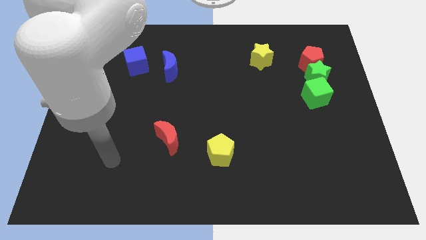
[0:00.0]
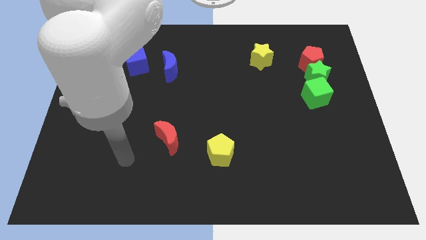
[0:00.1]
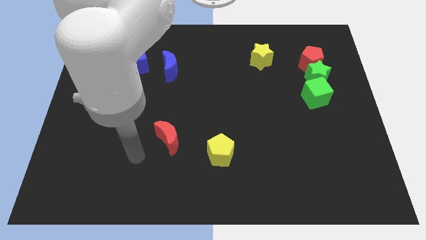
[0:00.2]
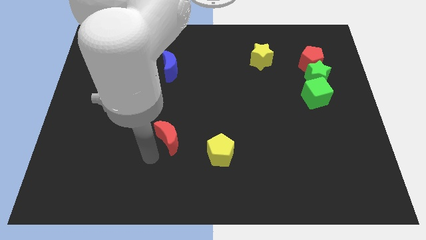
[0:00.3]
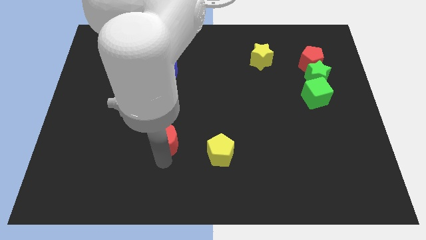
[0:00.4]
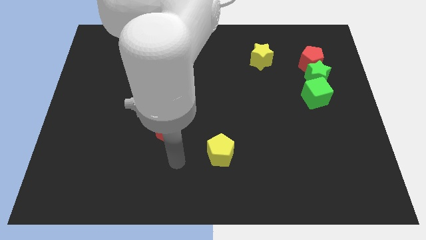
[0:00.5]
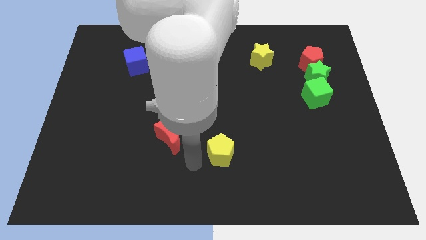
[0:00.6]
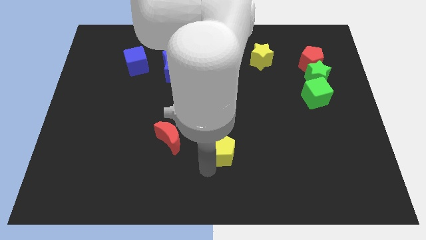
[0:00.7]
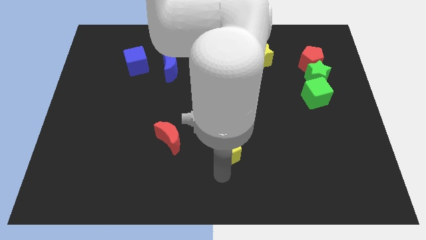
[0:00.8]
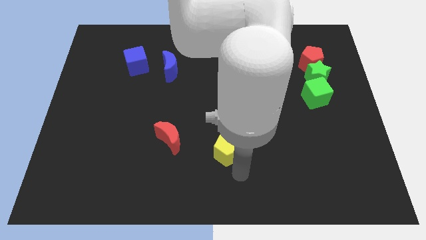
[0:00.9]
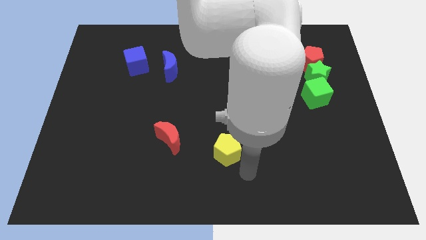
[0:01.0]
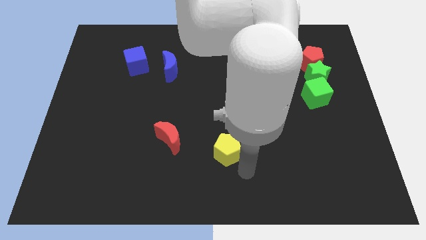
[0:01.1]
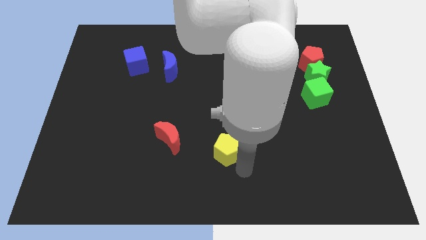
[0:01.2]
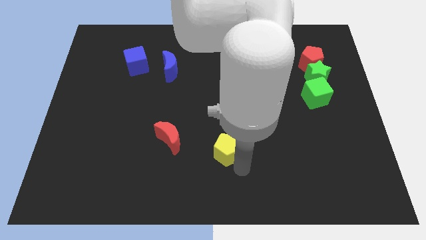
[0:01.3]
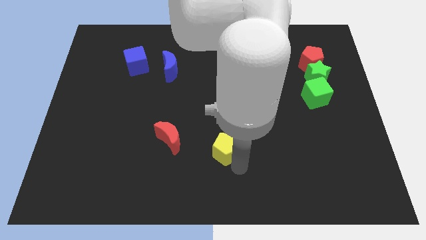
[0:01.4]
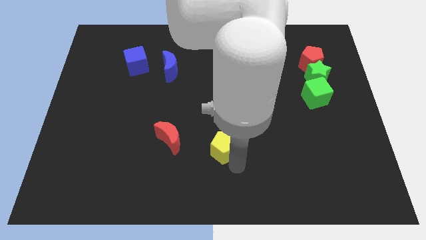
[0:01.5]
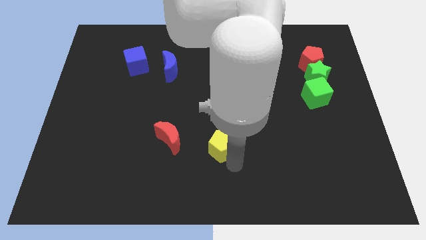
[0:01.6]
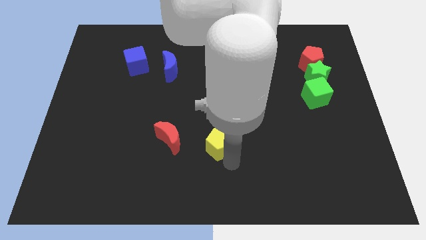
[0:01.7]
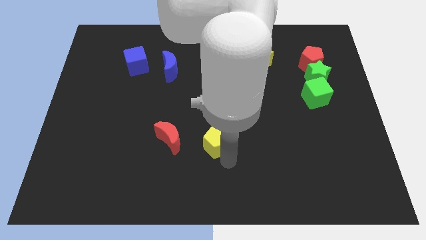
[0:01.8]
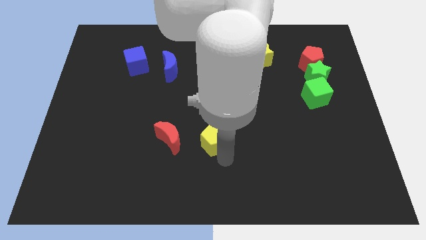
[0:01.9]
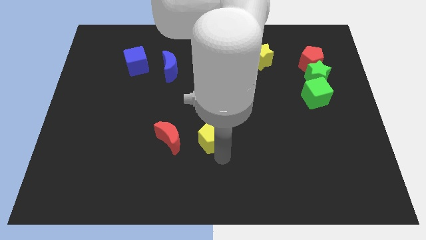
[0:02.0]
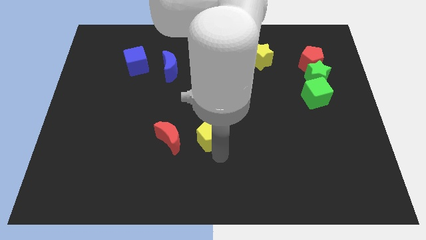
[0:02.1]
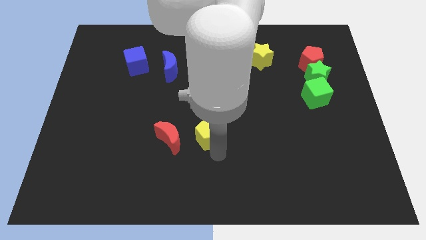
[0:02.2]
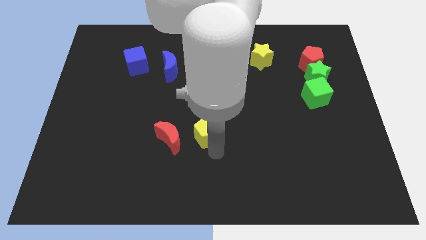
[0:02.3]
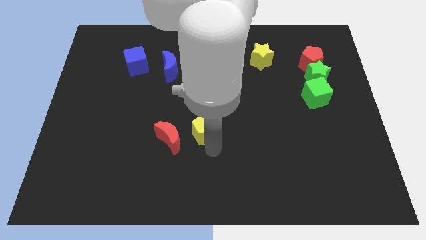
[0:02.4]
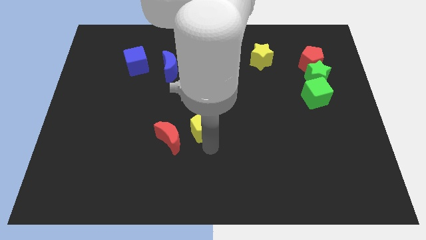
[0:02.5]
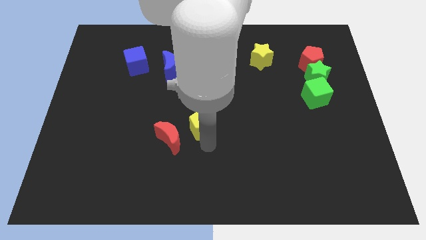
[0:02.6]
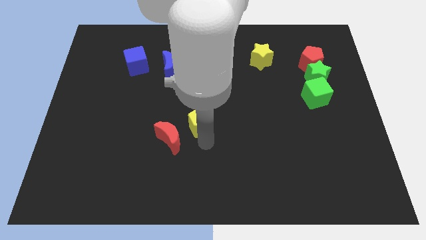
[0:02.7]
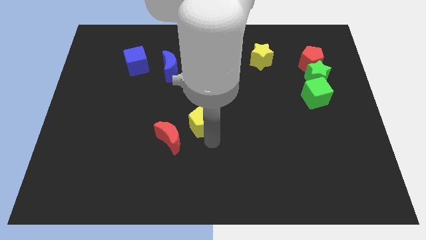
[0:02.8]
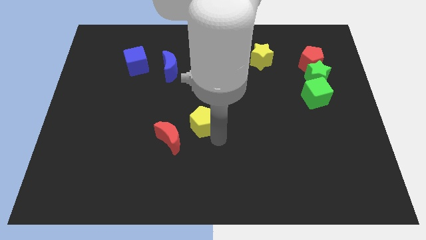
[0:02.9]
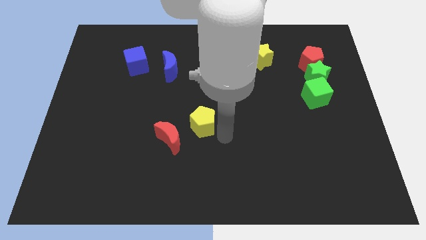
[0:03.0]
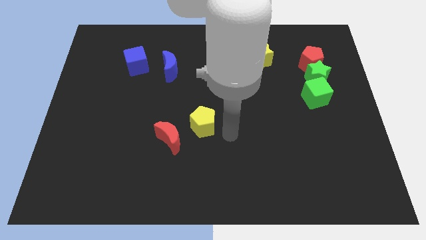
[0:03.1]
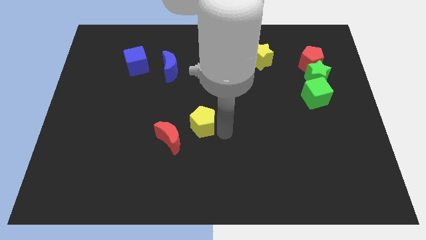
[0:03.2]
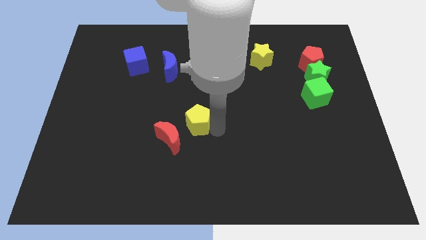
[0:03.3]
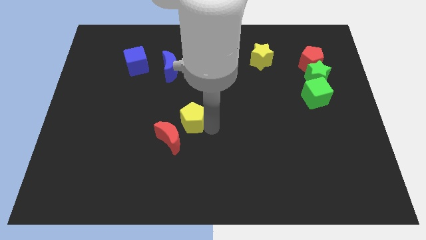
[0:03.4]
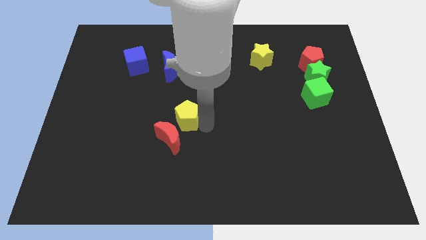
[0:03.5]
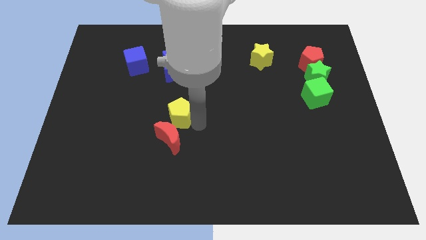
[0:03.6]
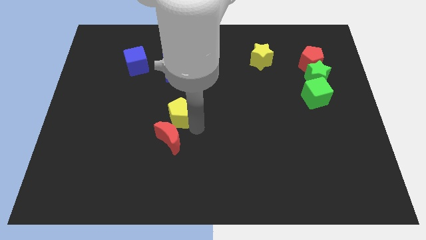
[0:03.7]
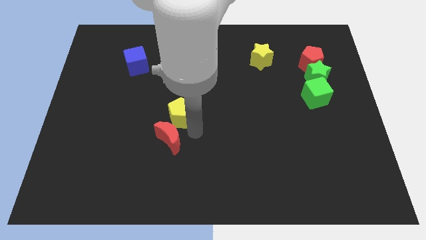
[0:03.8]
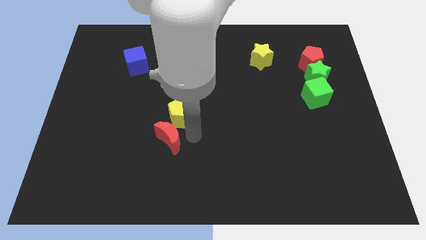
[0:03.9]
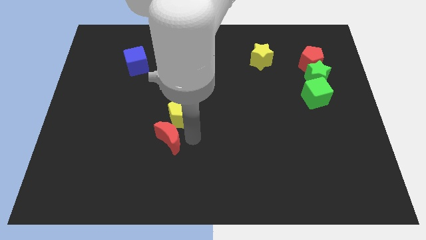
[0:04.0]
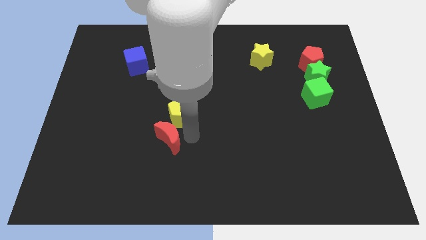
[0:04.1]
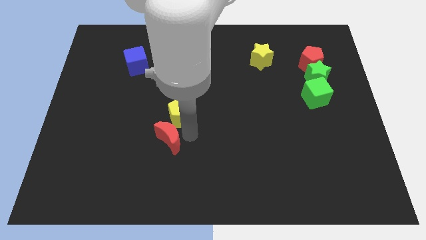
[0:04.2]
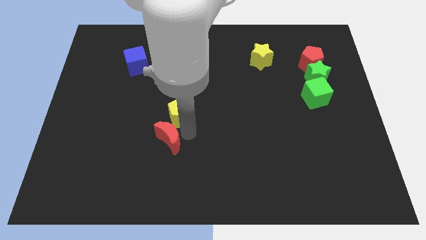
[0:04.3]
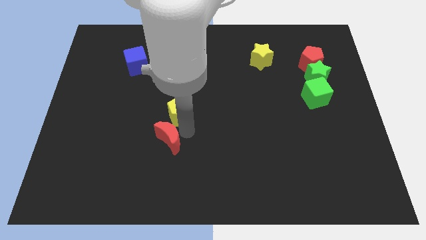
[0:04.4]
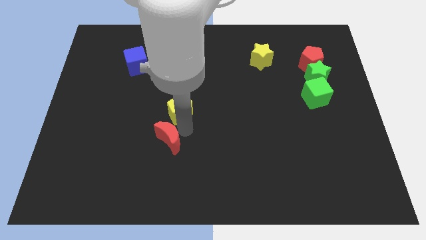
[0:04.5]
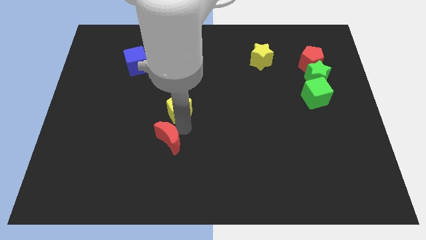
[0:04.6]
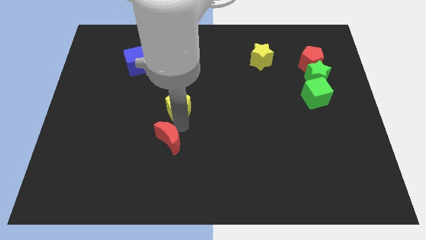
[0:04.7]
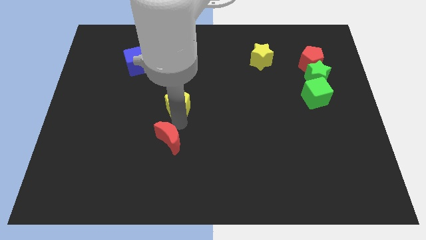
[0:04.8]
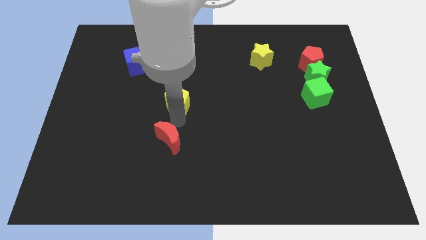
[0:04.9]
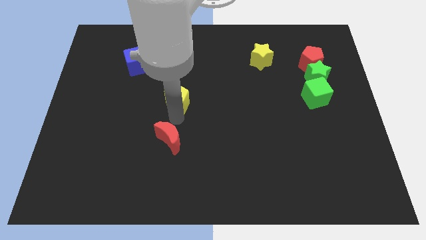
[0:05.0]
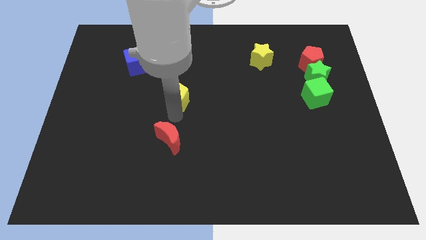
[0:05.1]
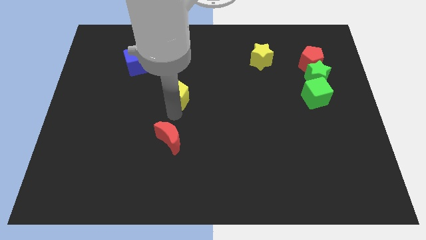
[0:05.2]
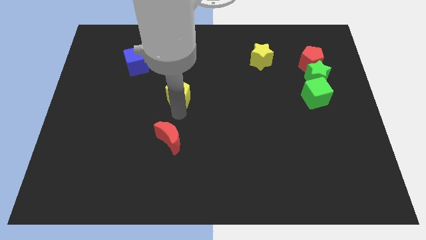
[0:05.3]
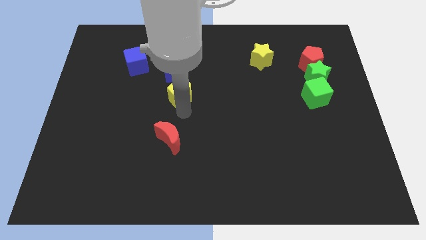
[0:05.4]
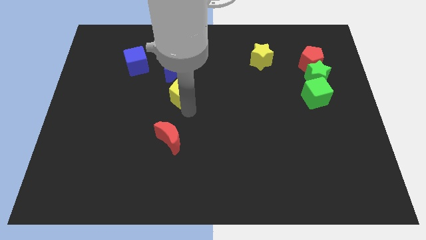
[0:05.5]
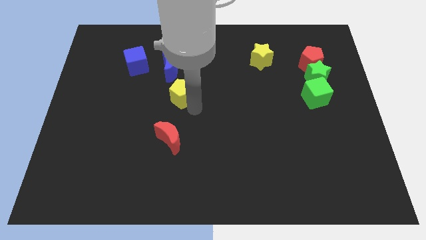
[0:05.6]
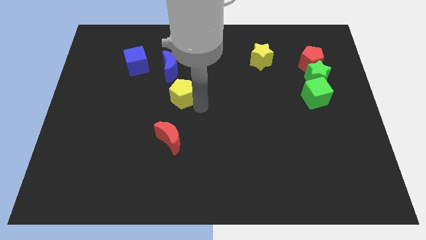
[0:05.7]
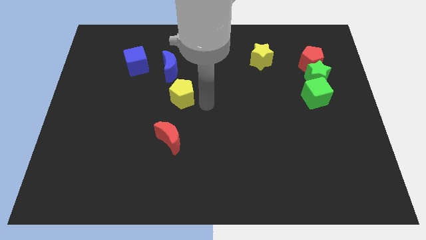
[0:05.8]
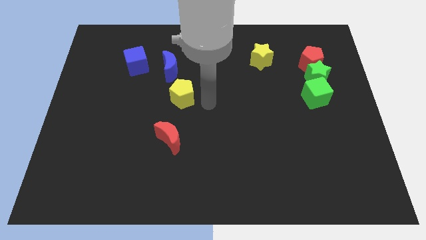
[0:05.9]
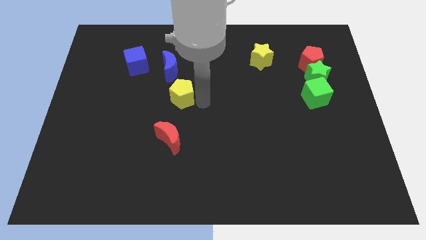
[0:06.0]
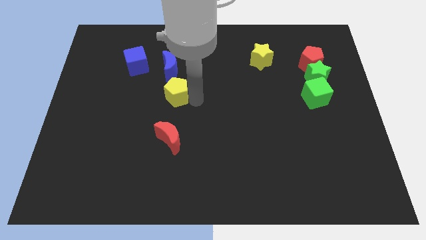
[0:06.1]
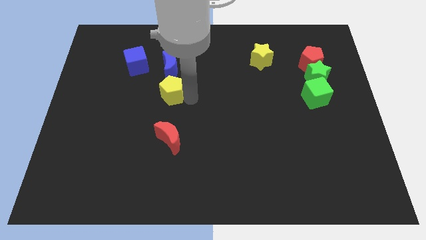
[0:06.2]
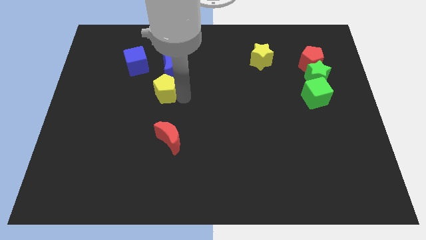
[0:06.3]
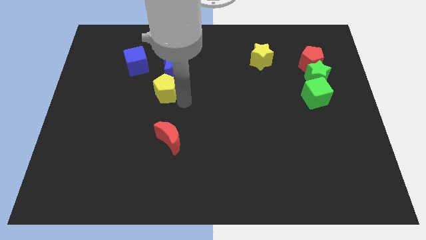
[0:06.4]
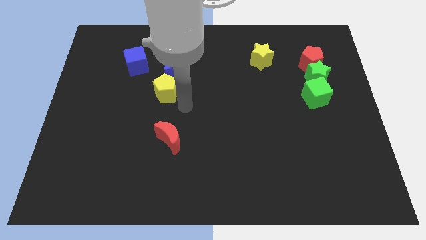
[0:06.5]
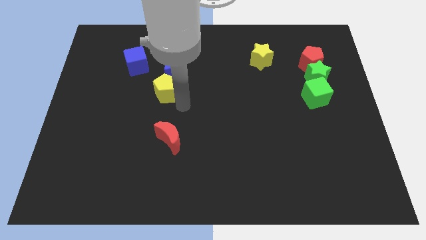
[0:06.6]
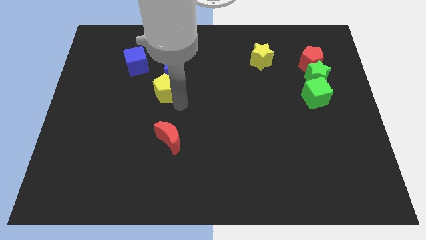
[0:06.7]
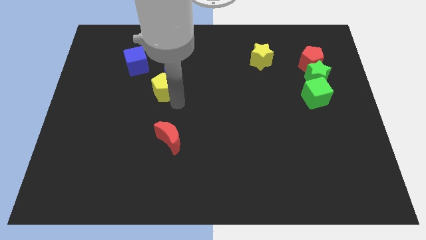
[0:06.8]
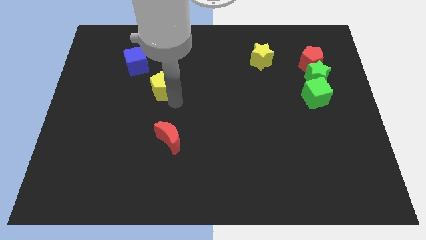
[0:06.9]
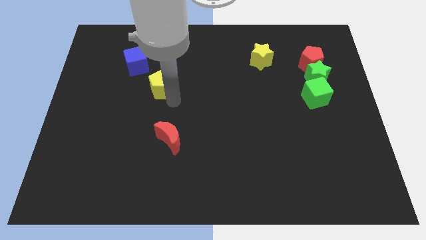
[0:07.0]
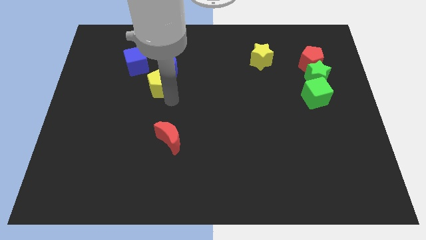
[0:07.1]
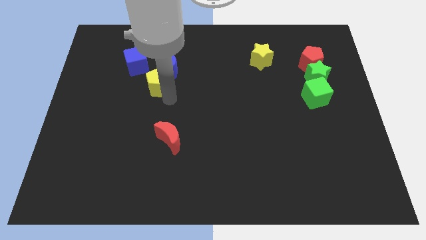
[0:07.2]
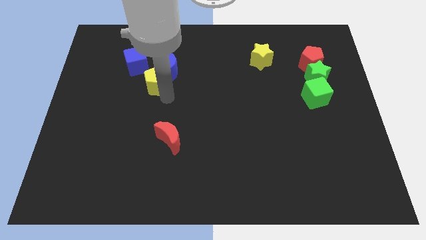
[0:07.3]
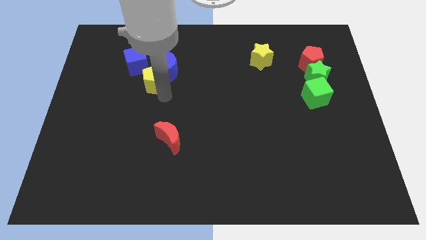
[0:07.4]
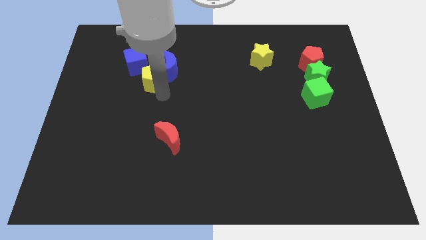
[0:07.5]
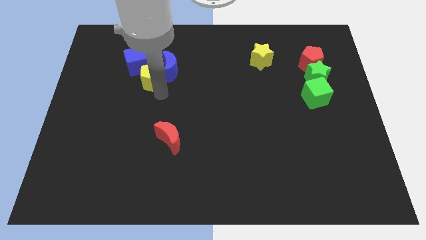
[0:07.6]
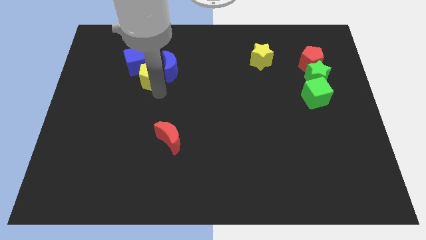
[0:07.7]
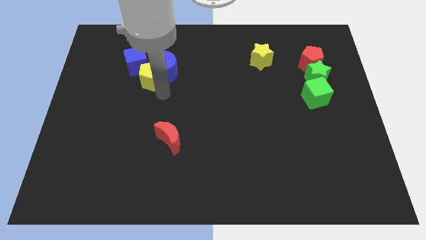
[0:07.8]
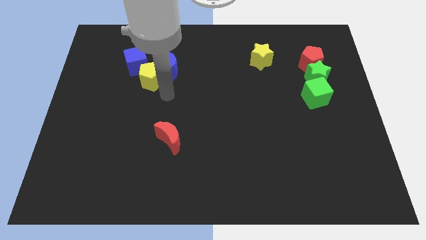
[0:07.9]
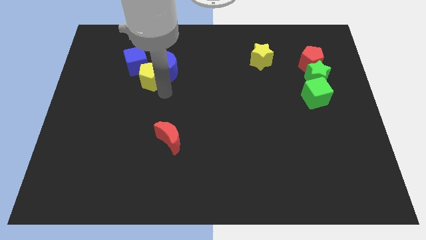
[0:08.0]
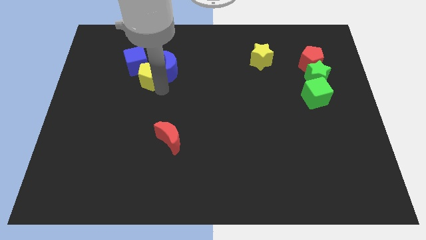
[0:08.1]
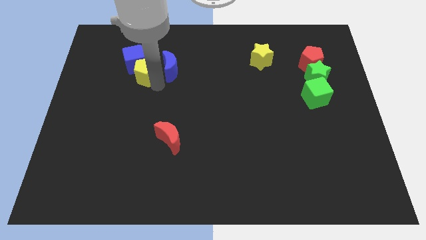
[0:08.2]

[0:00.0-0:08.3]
slide the yellow pentagon to the blue cube
